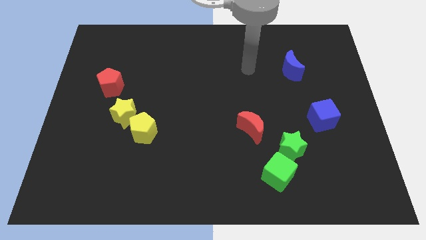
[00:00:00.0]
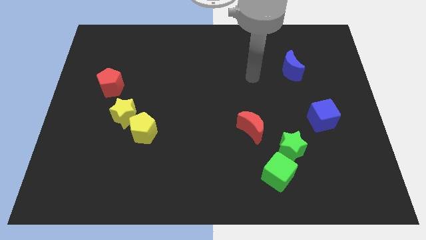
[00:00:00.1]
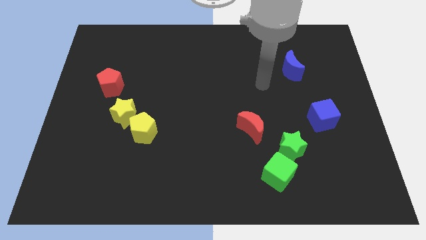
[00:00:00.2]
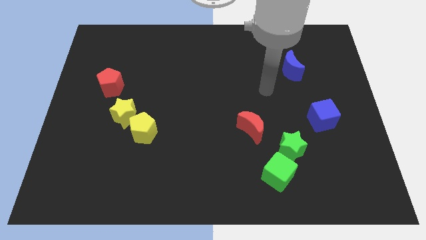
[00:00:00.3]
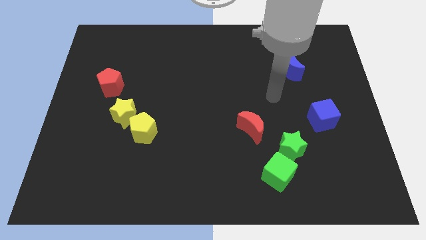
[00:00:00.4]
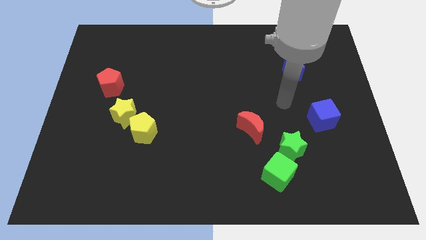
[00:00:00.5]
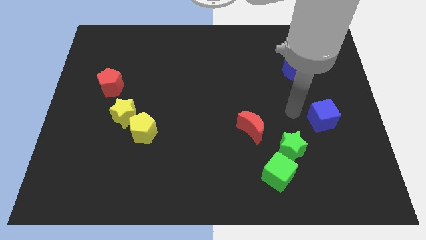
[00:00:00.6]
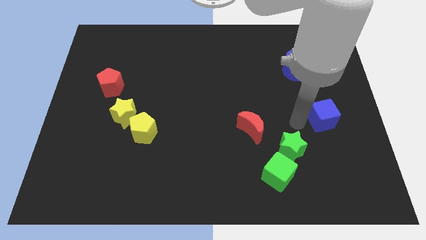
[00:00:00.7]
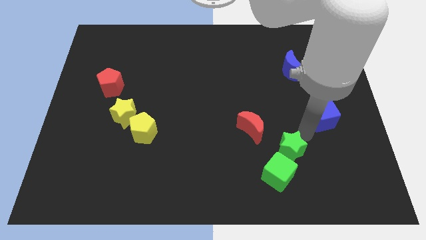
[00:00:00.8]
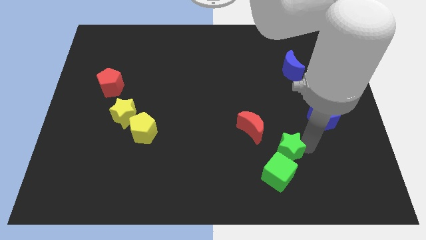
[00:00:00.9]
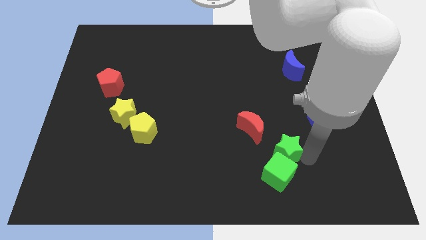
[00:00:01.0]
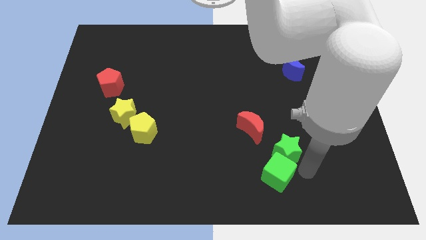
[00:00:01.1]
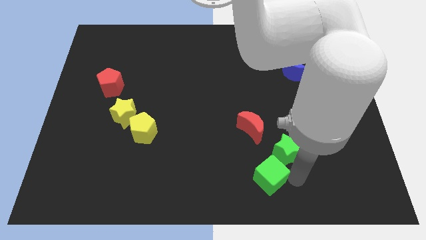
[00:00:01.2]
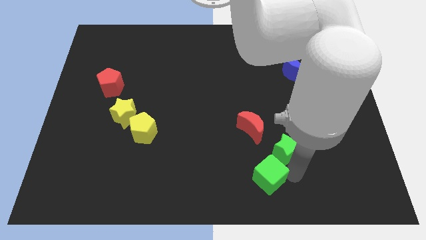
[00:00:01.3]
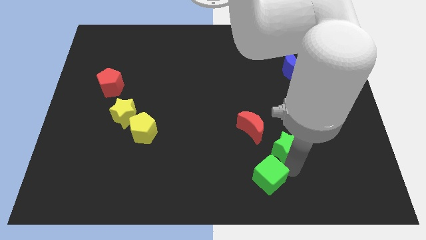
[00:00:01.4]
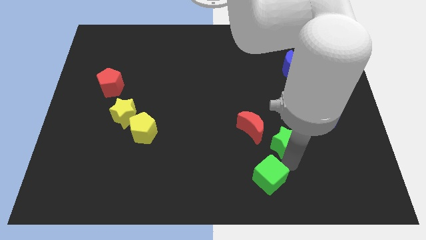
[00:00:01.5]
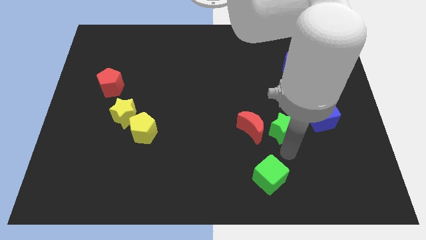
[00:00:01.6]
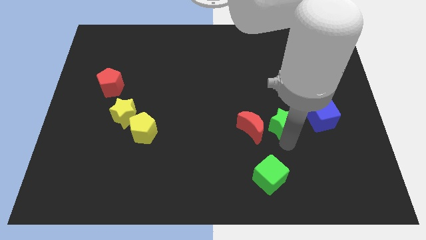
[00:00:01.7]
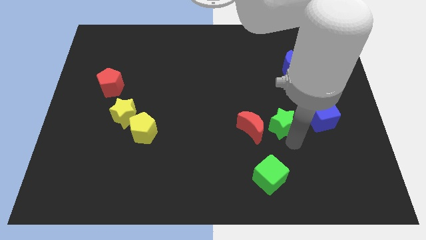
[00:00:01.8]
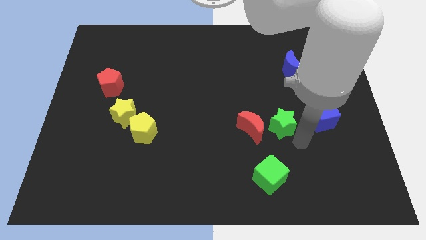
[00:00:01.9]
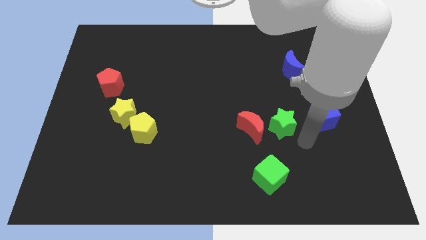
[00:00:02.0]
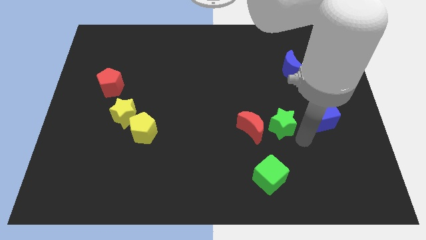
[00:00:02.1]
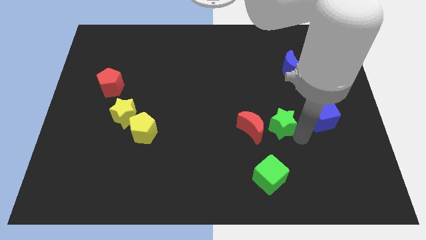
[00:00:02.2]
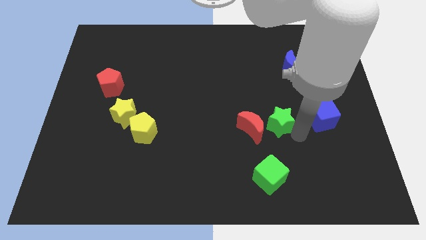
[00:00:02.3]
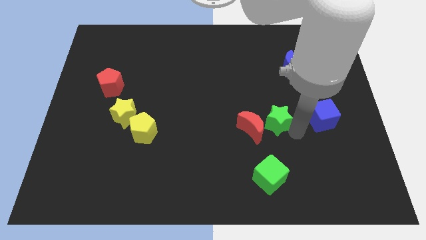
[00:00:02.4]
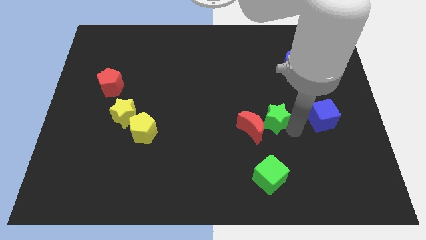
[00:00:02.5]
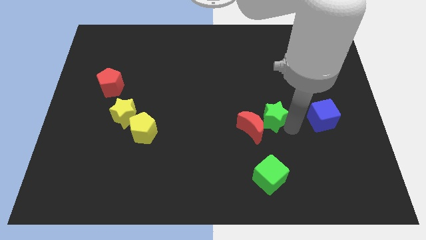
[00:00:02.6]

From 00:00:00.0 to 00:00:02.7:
slightly move the green star up and then left

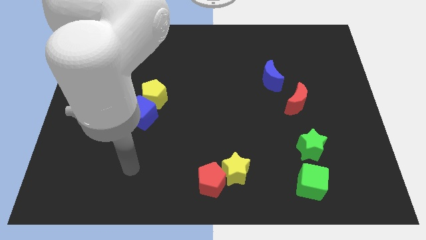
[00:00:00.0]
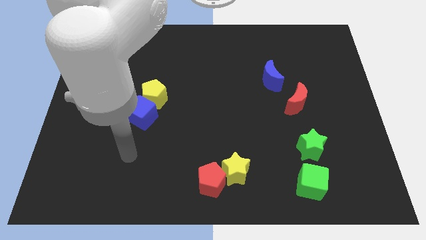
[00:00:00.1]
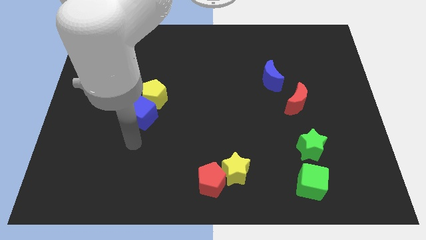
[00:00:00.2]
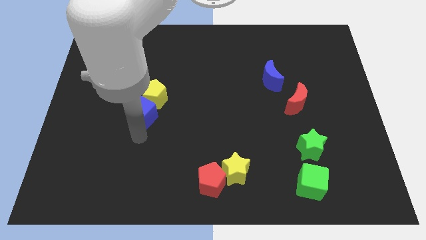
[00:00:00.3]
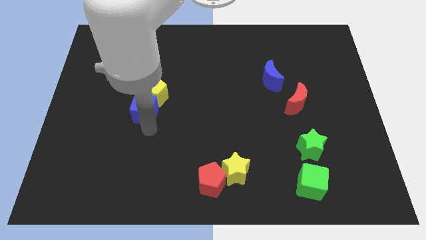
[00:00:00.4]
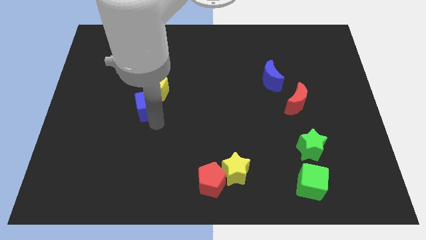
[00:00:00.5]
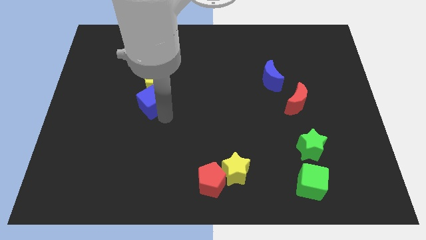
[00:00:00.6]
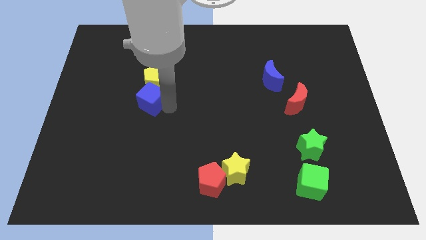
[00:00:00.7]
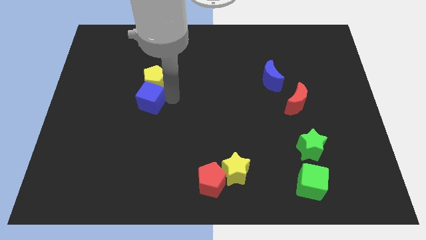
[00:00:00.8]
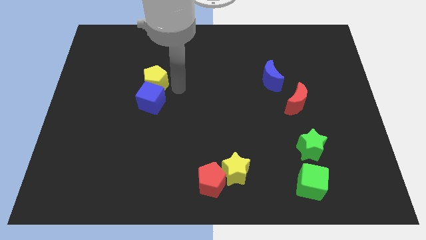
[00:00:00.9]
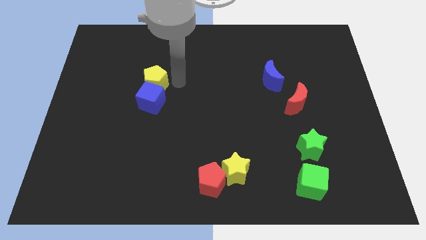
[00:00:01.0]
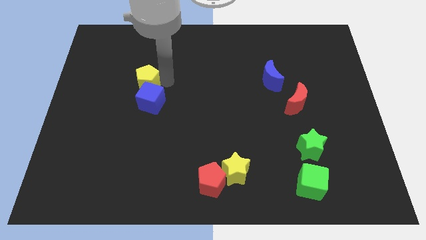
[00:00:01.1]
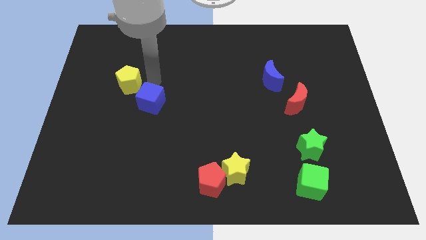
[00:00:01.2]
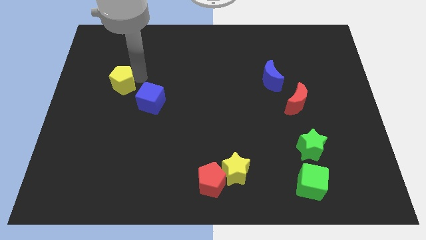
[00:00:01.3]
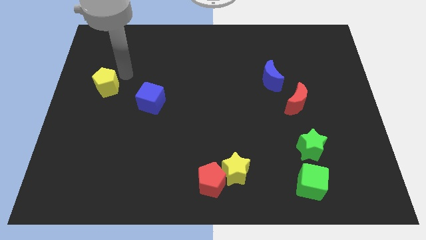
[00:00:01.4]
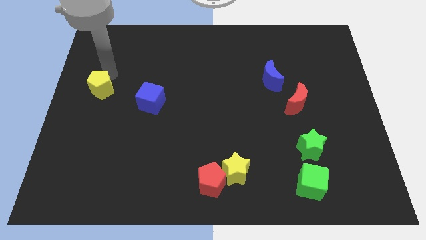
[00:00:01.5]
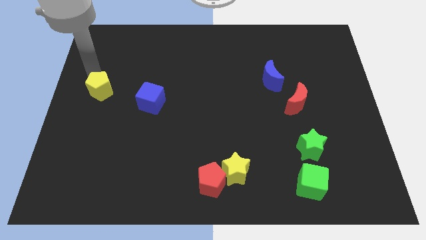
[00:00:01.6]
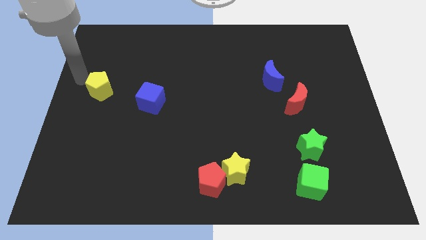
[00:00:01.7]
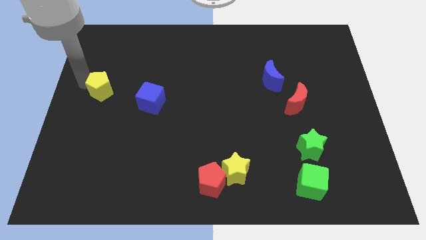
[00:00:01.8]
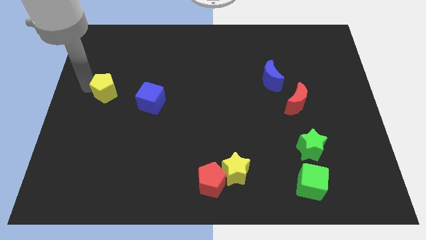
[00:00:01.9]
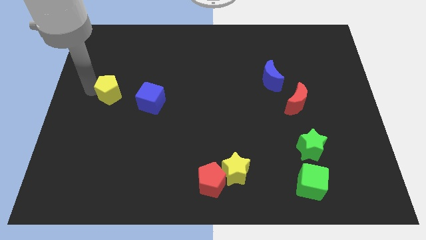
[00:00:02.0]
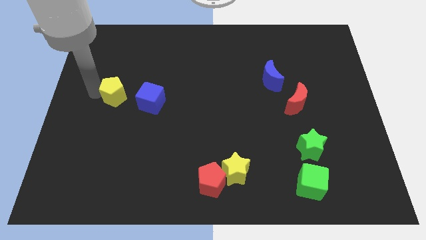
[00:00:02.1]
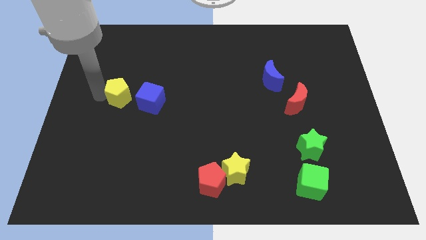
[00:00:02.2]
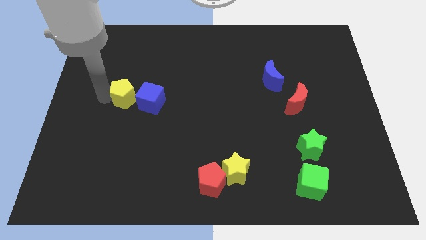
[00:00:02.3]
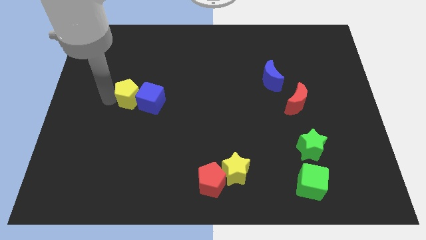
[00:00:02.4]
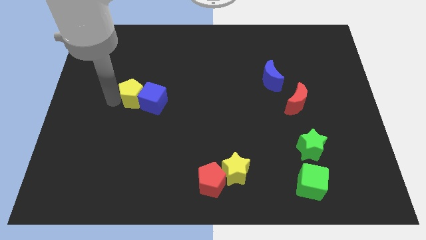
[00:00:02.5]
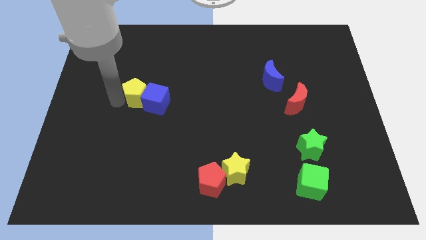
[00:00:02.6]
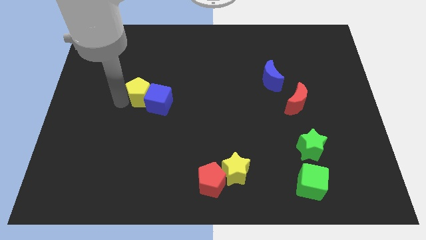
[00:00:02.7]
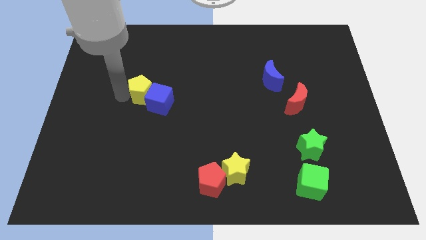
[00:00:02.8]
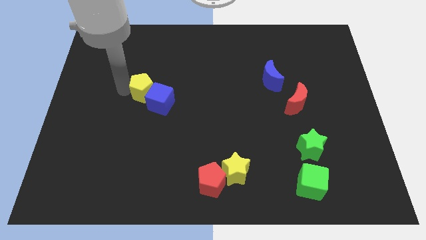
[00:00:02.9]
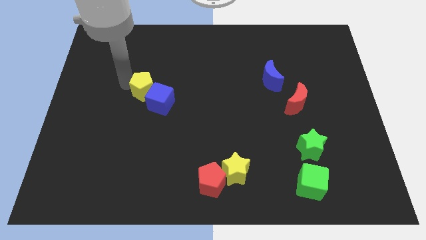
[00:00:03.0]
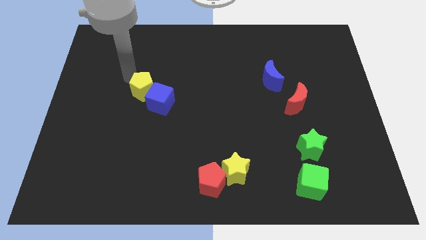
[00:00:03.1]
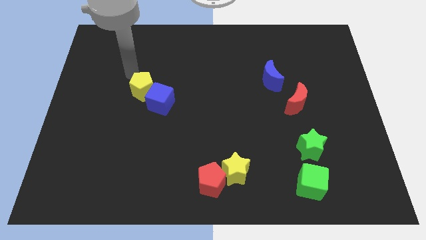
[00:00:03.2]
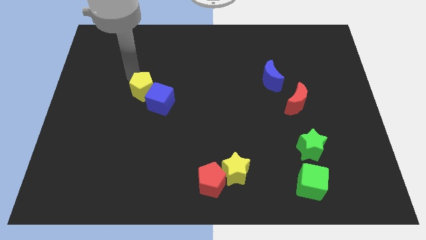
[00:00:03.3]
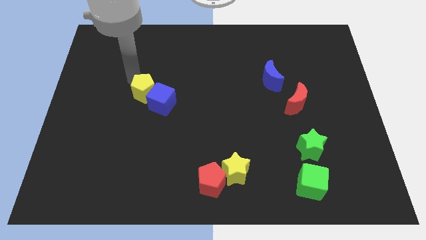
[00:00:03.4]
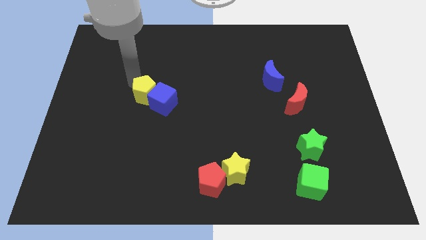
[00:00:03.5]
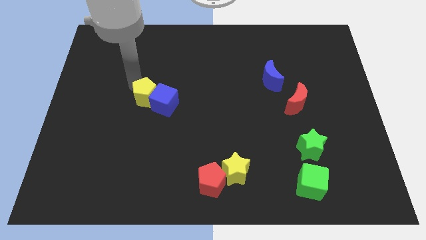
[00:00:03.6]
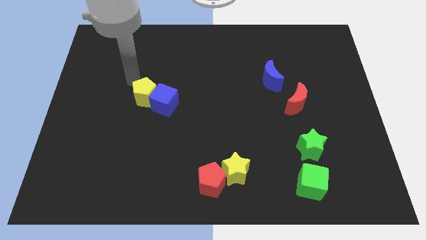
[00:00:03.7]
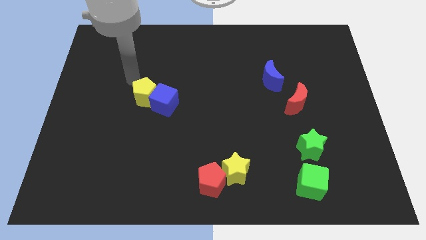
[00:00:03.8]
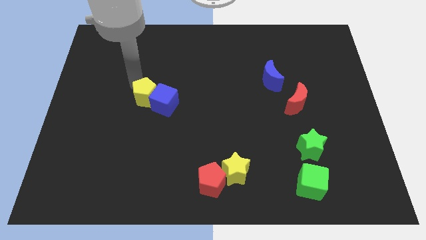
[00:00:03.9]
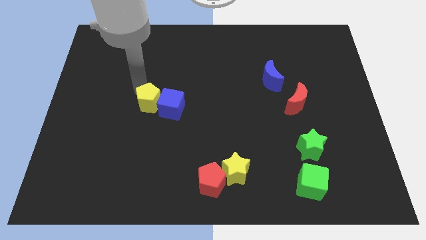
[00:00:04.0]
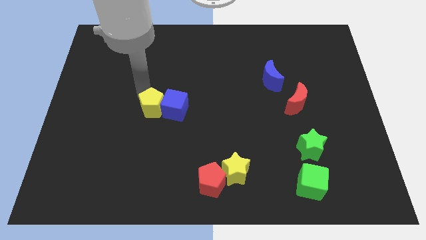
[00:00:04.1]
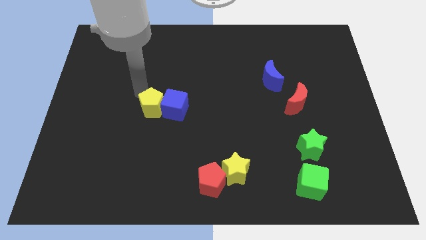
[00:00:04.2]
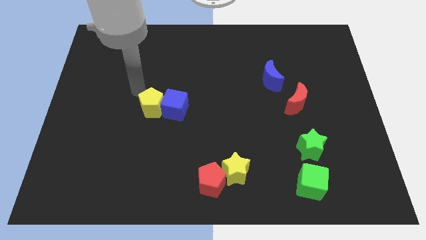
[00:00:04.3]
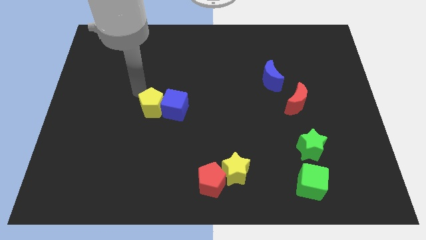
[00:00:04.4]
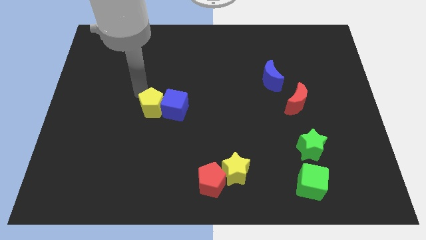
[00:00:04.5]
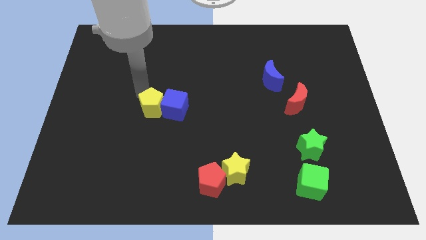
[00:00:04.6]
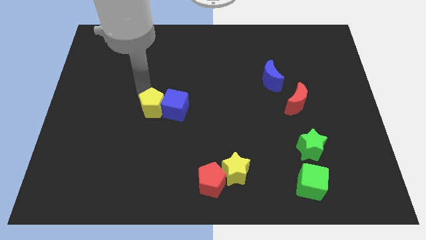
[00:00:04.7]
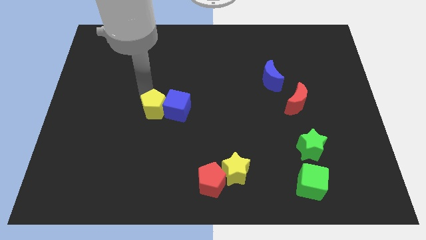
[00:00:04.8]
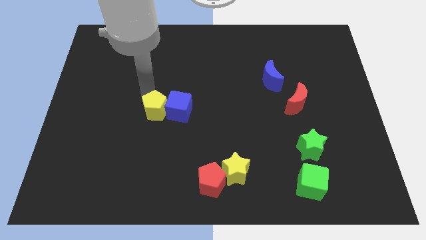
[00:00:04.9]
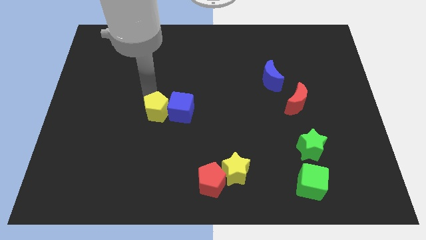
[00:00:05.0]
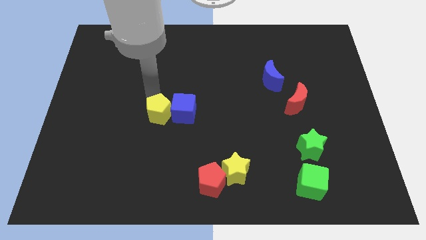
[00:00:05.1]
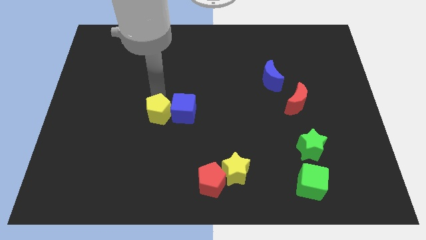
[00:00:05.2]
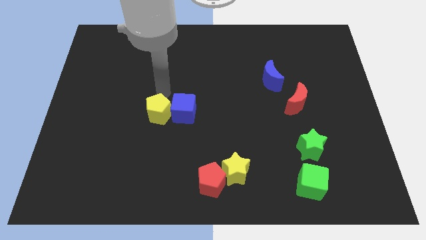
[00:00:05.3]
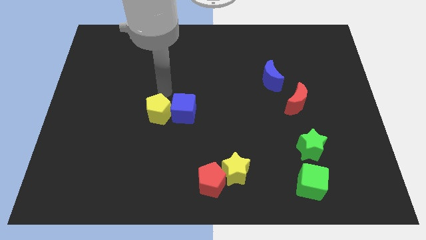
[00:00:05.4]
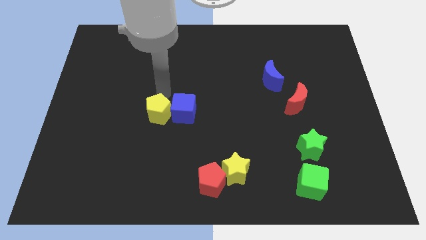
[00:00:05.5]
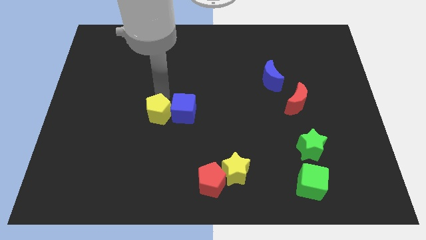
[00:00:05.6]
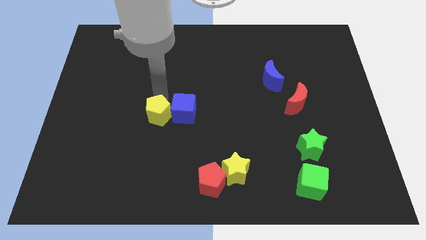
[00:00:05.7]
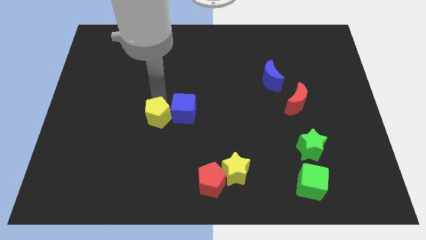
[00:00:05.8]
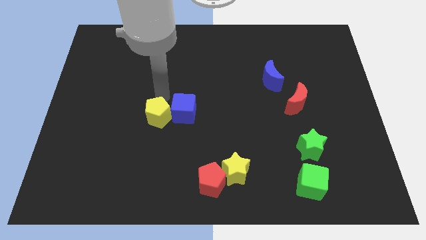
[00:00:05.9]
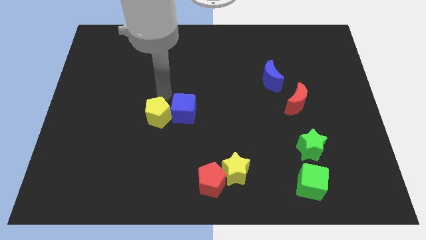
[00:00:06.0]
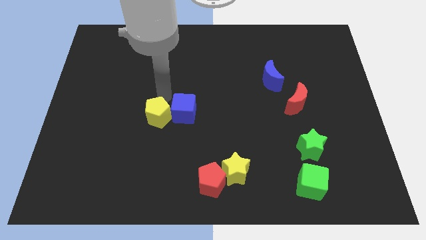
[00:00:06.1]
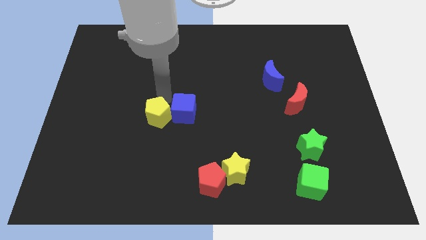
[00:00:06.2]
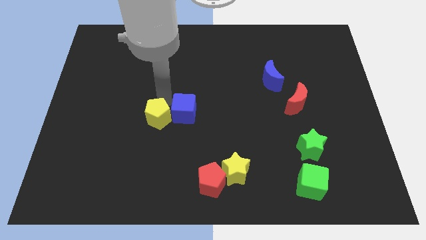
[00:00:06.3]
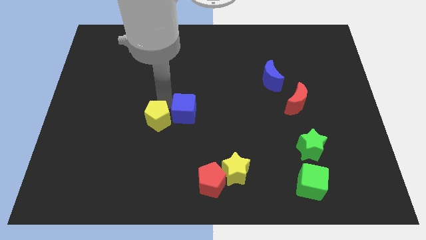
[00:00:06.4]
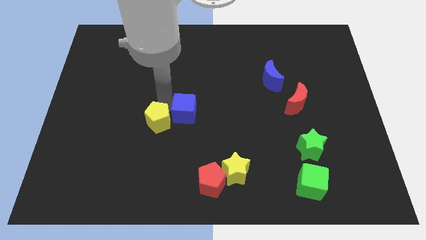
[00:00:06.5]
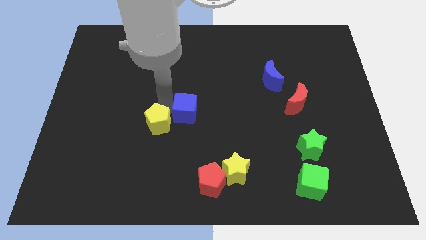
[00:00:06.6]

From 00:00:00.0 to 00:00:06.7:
slightly slide the yellow pentagon down
